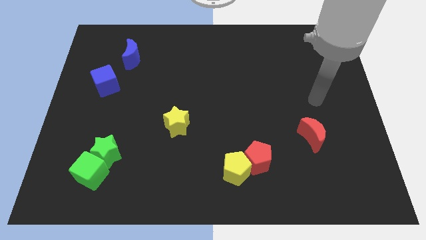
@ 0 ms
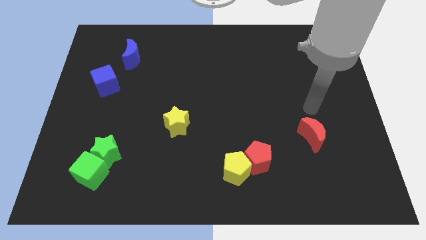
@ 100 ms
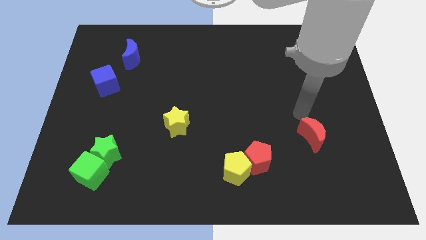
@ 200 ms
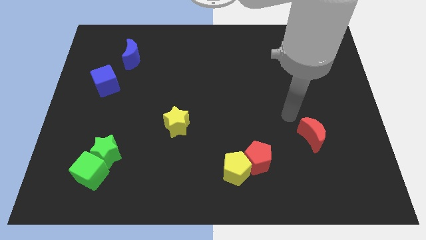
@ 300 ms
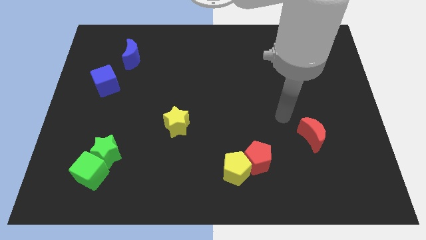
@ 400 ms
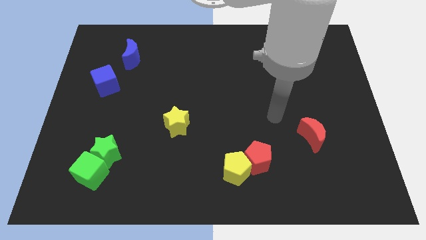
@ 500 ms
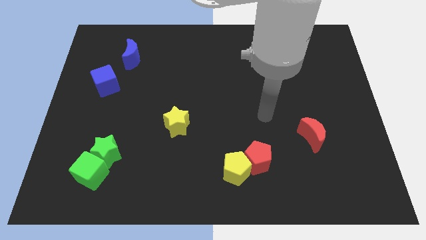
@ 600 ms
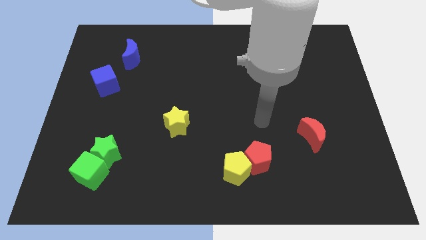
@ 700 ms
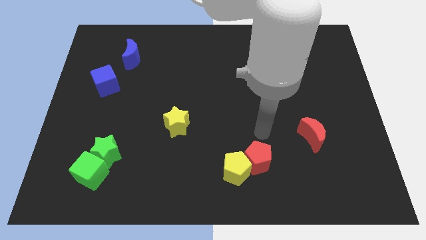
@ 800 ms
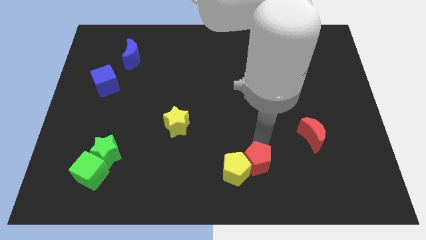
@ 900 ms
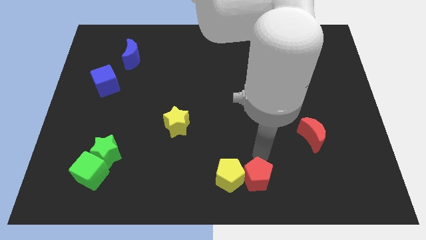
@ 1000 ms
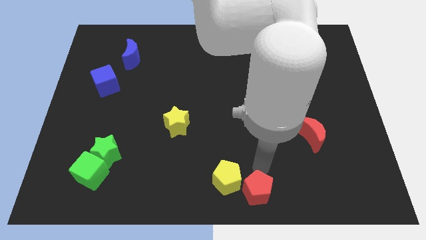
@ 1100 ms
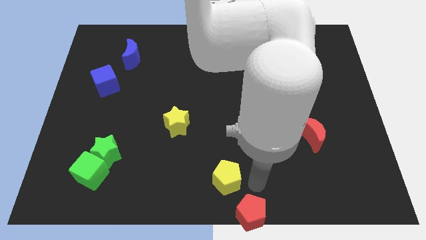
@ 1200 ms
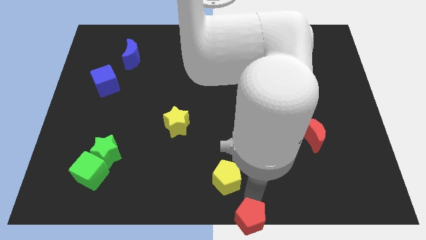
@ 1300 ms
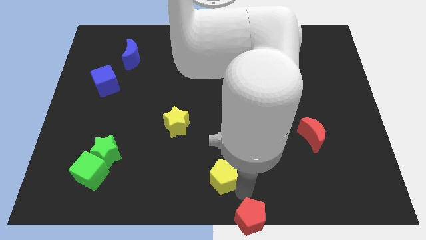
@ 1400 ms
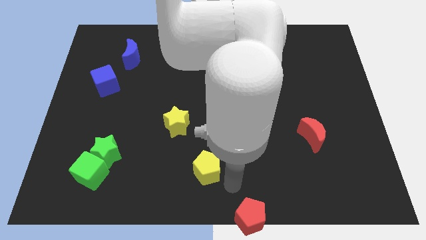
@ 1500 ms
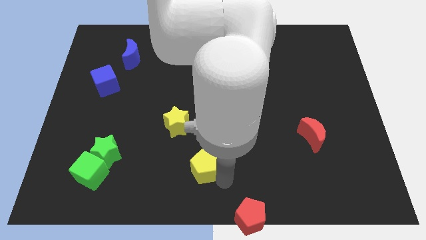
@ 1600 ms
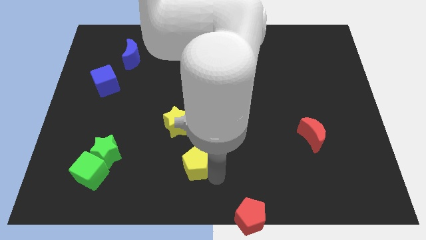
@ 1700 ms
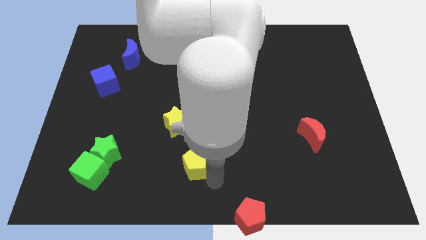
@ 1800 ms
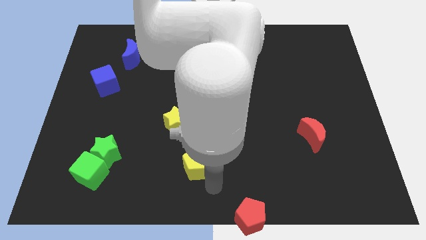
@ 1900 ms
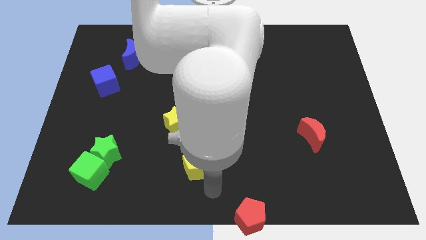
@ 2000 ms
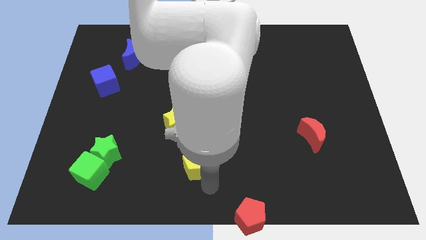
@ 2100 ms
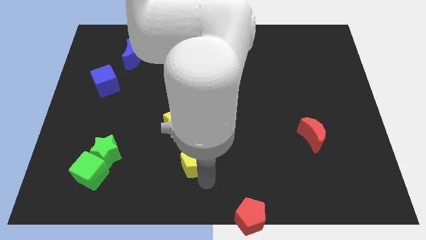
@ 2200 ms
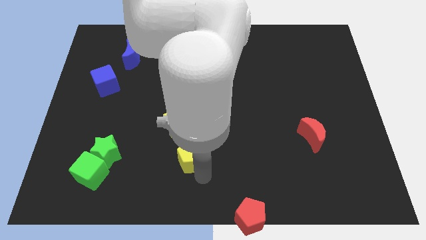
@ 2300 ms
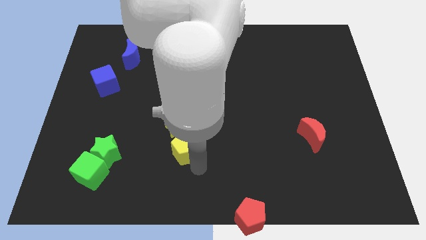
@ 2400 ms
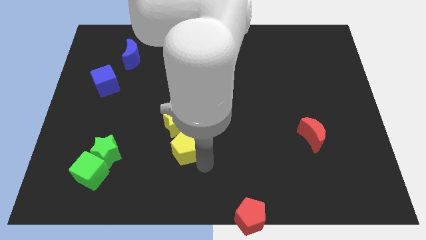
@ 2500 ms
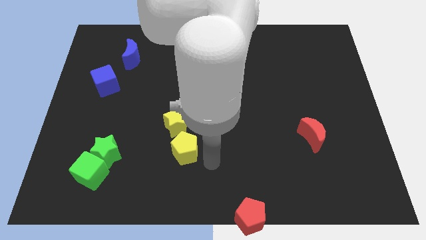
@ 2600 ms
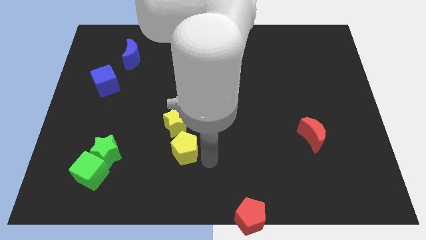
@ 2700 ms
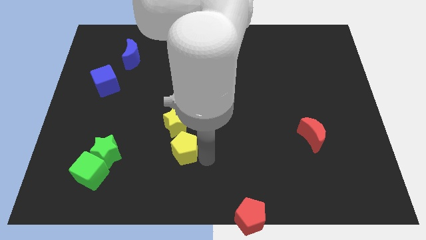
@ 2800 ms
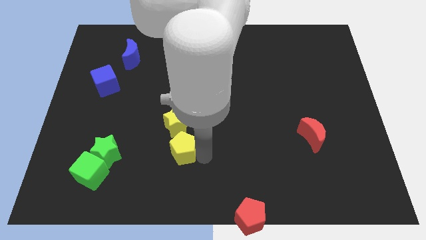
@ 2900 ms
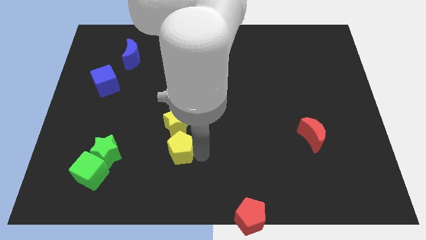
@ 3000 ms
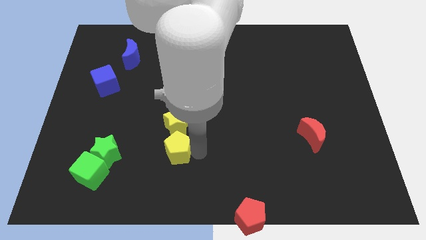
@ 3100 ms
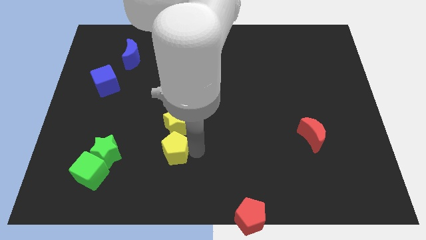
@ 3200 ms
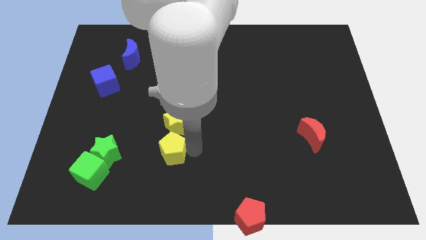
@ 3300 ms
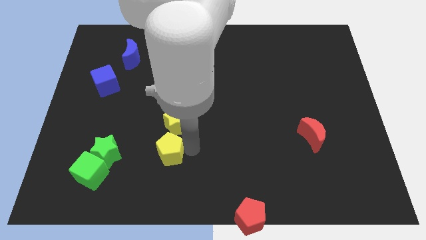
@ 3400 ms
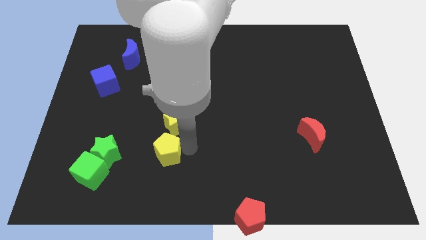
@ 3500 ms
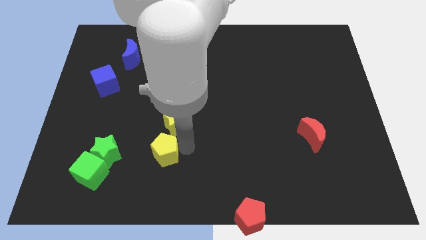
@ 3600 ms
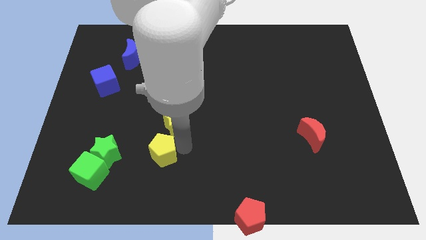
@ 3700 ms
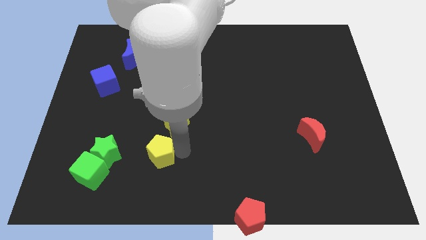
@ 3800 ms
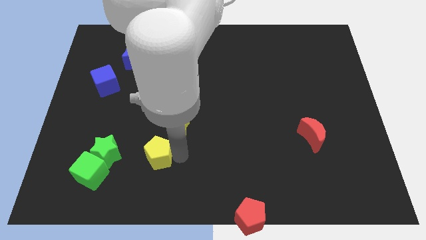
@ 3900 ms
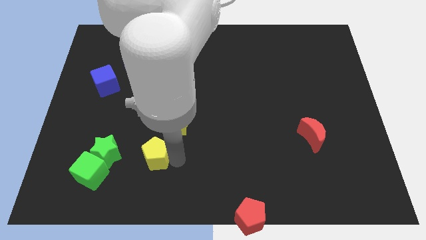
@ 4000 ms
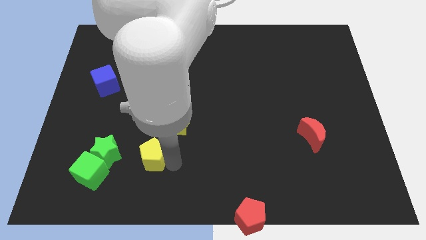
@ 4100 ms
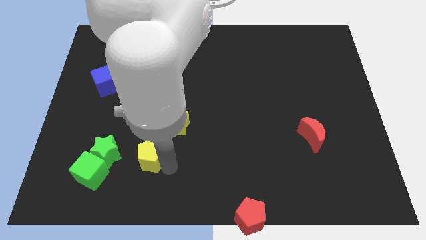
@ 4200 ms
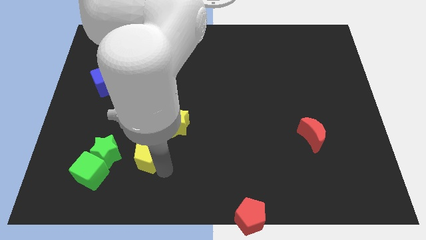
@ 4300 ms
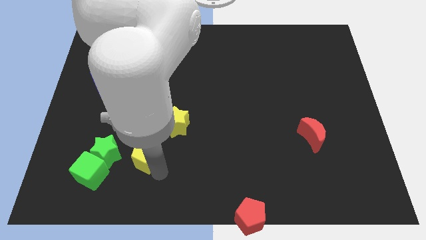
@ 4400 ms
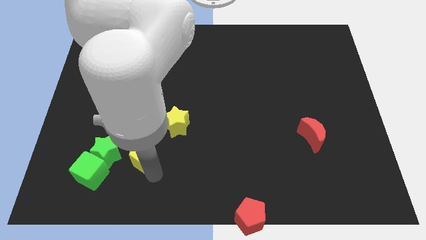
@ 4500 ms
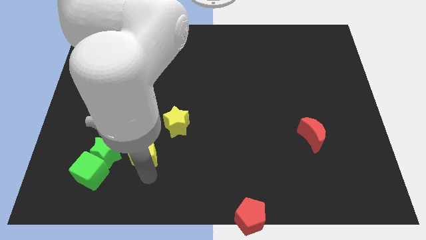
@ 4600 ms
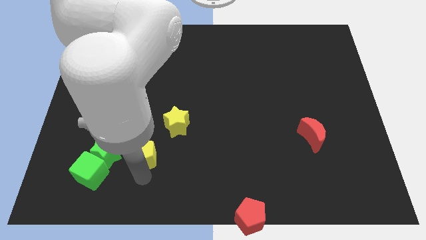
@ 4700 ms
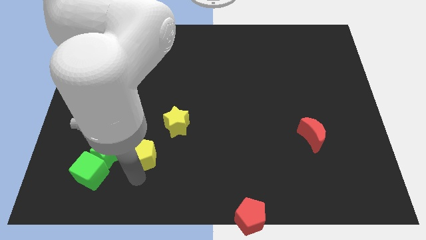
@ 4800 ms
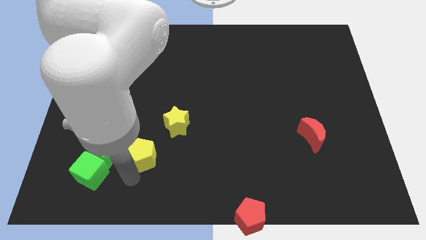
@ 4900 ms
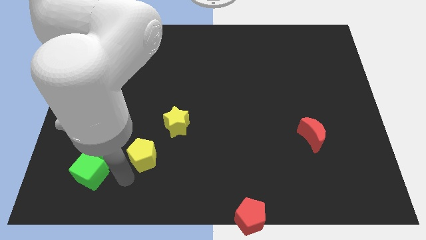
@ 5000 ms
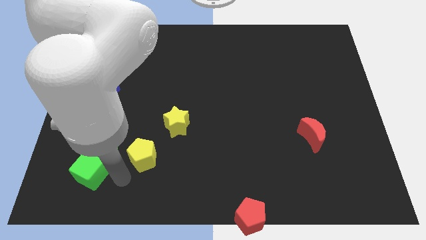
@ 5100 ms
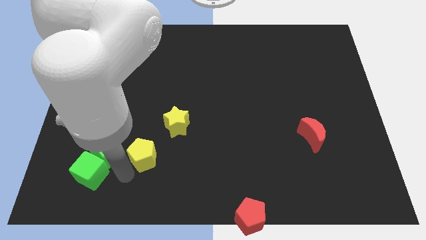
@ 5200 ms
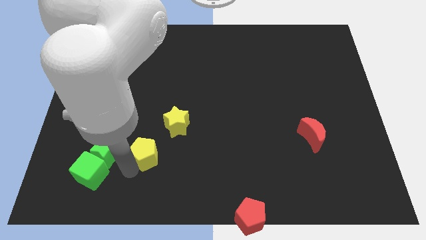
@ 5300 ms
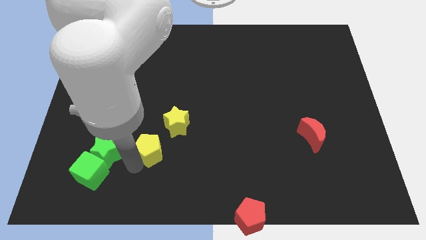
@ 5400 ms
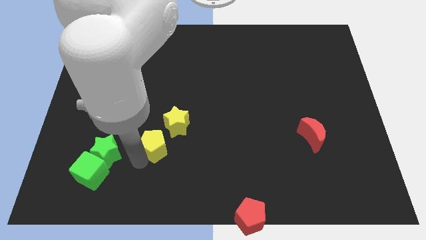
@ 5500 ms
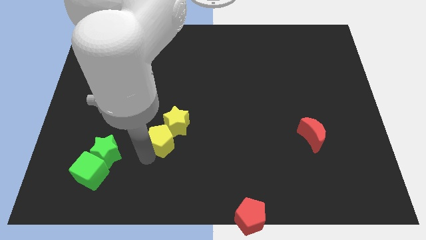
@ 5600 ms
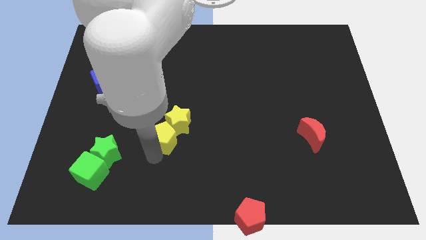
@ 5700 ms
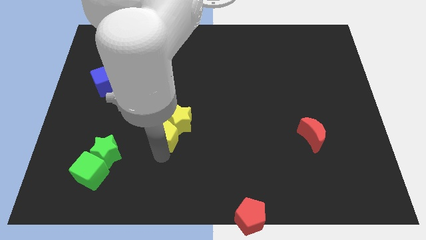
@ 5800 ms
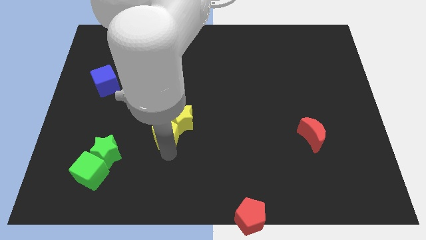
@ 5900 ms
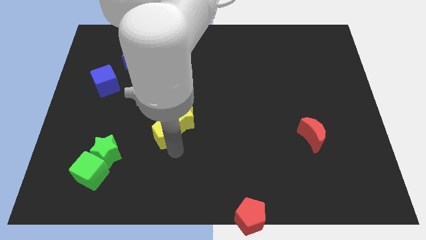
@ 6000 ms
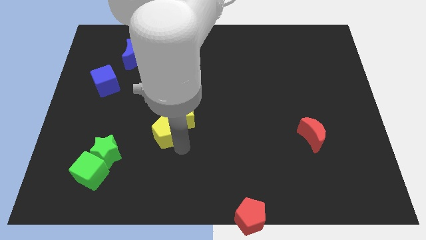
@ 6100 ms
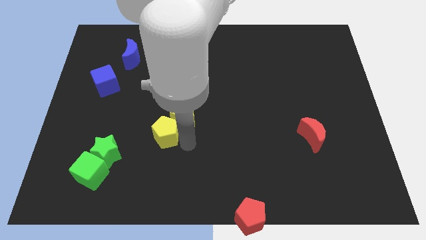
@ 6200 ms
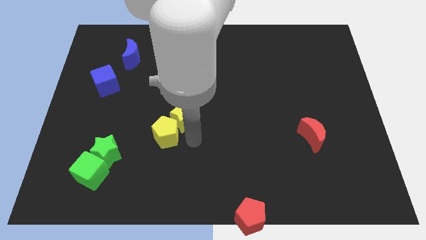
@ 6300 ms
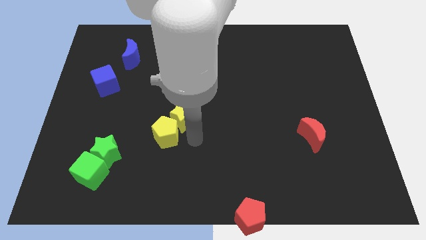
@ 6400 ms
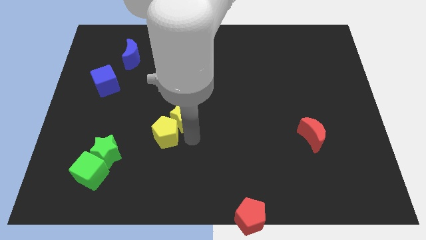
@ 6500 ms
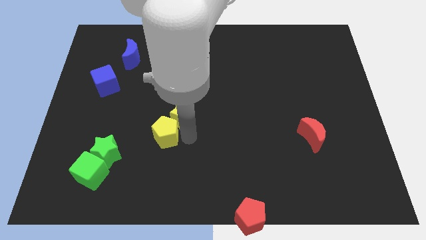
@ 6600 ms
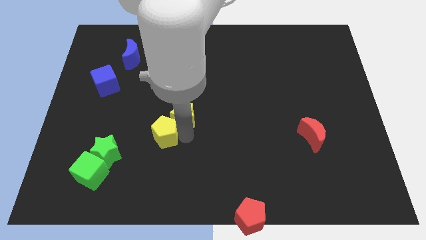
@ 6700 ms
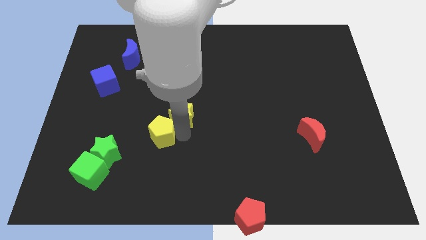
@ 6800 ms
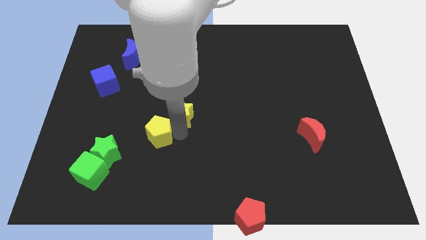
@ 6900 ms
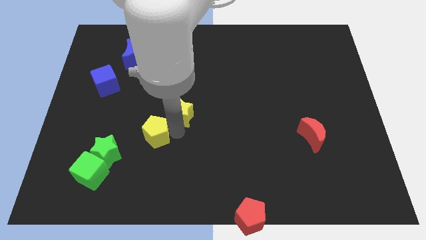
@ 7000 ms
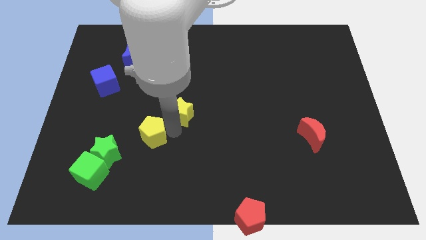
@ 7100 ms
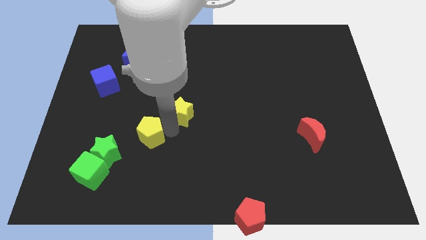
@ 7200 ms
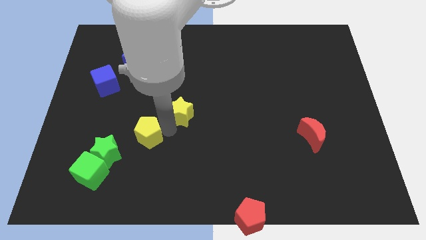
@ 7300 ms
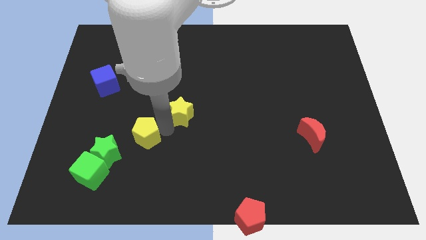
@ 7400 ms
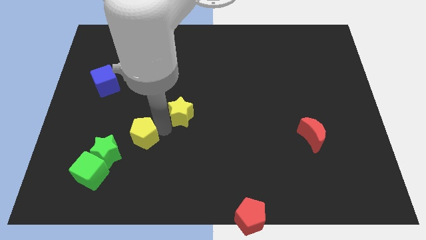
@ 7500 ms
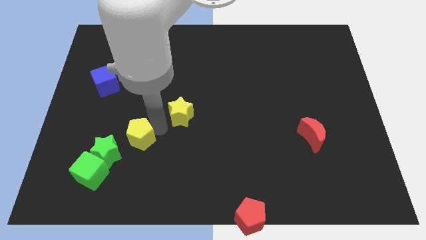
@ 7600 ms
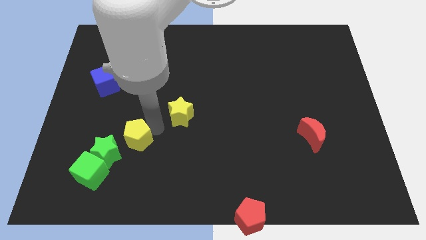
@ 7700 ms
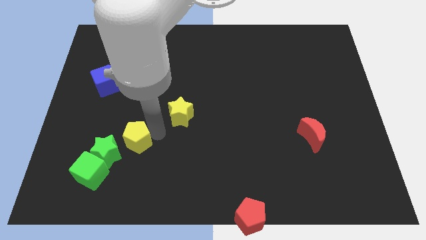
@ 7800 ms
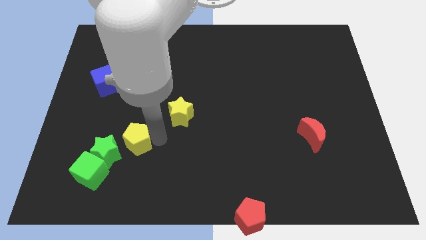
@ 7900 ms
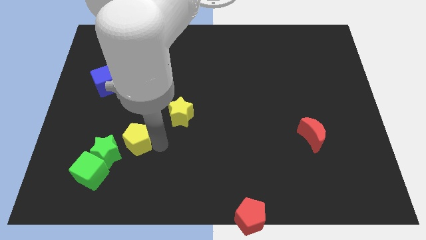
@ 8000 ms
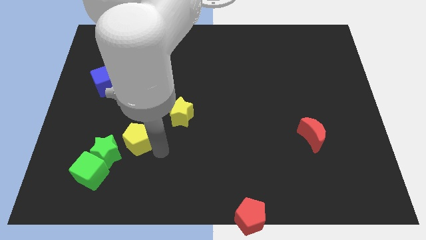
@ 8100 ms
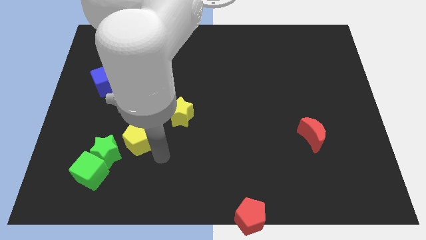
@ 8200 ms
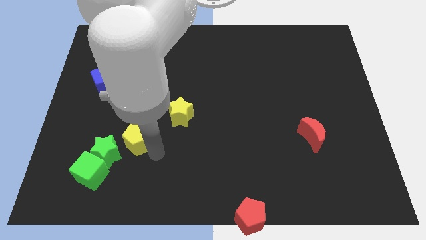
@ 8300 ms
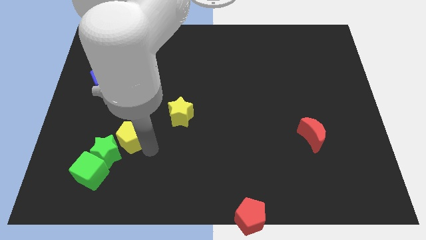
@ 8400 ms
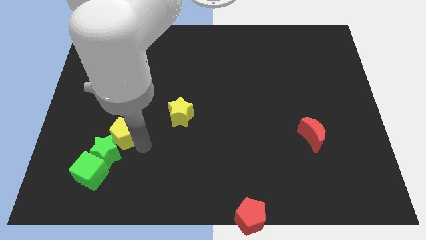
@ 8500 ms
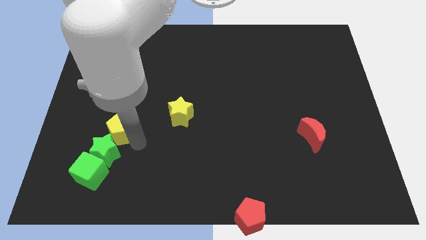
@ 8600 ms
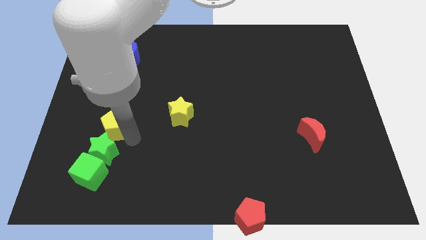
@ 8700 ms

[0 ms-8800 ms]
move the yellow pentagon to the bottom of the blue cube
